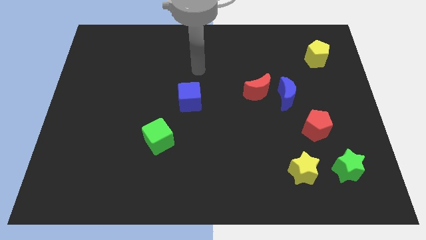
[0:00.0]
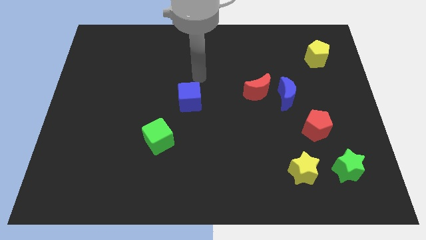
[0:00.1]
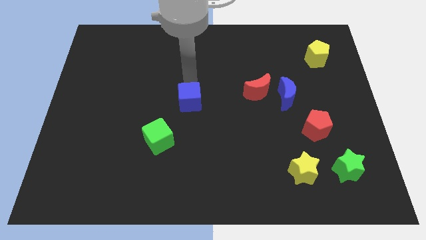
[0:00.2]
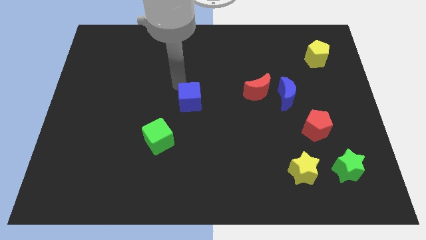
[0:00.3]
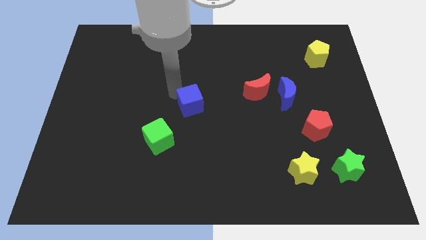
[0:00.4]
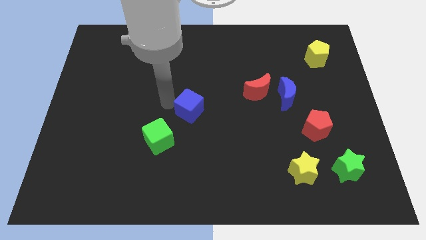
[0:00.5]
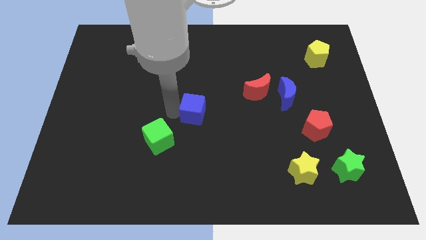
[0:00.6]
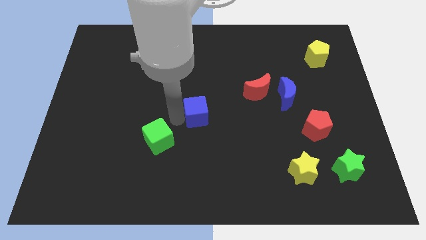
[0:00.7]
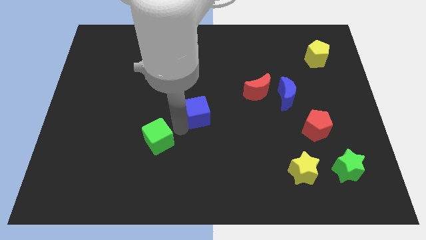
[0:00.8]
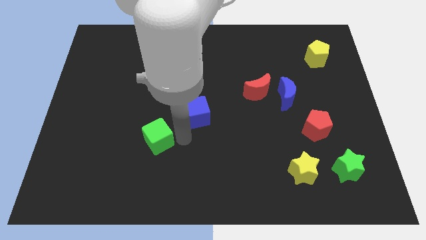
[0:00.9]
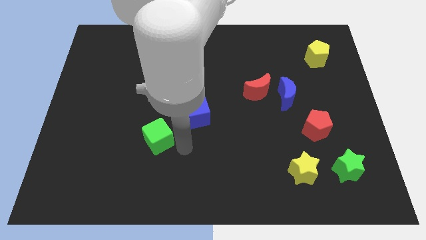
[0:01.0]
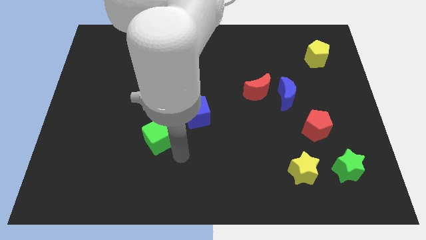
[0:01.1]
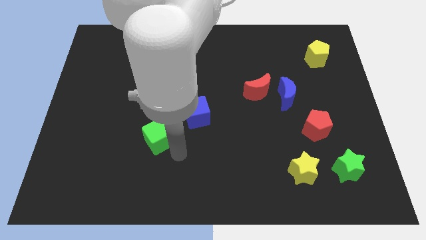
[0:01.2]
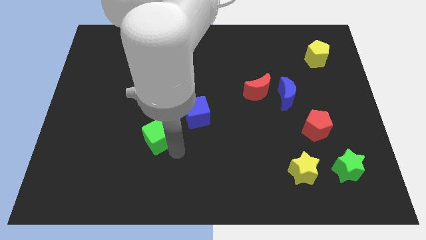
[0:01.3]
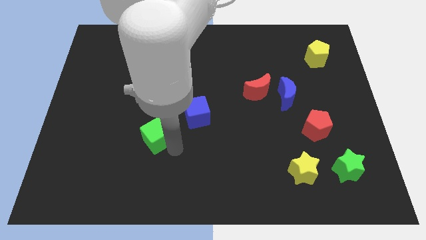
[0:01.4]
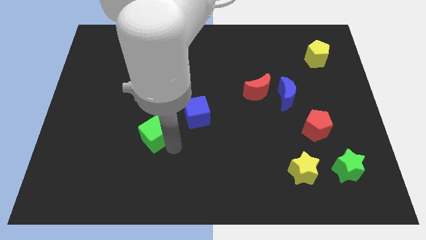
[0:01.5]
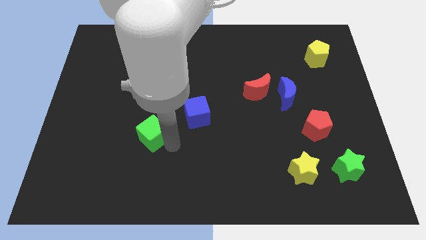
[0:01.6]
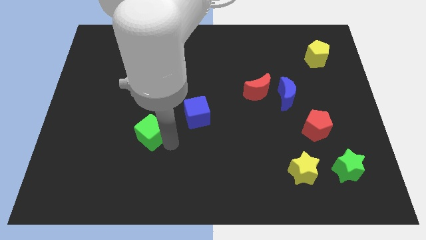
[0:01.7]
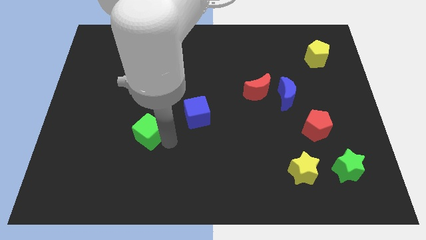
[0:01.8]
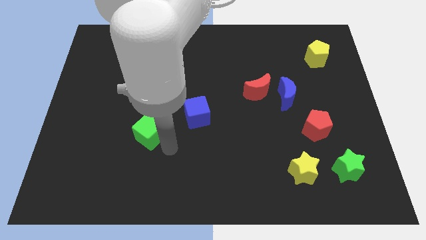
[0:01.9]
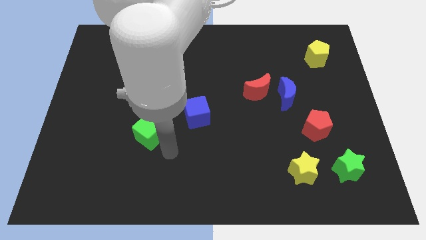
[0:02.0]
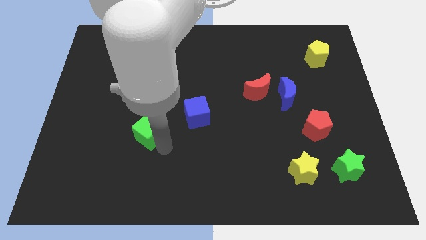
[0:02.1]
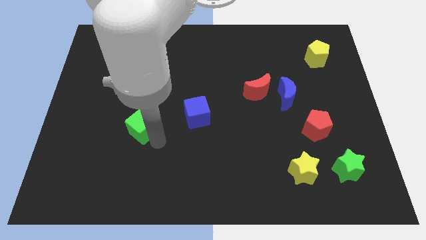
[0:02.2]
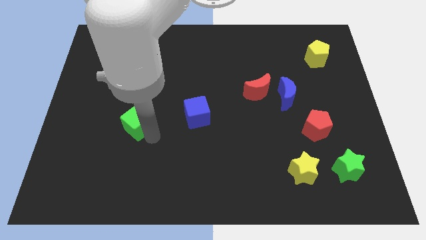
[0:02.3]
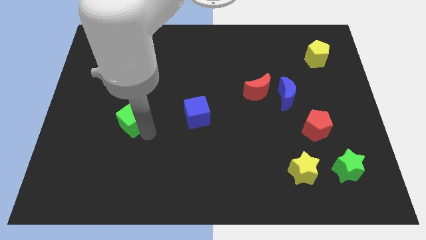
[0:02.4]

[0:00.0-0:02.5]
slide the green cube somewhat up and then to the left

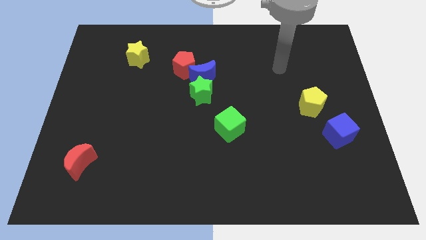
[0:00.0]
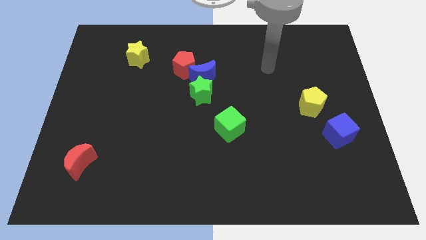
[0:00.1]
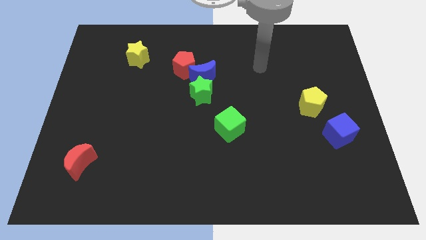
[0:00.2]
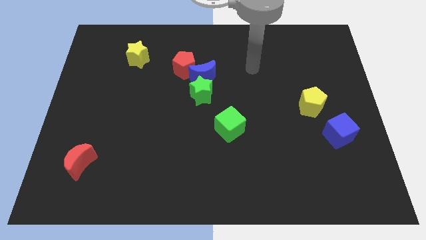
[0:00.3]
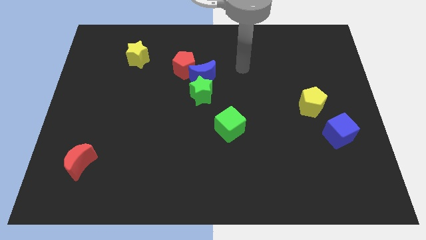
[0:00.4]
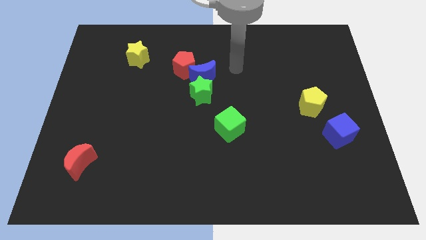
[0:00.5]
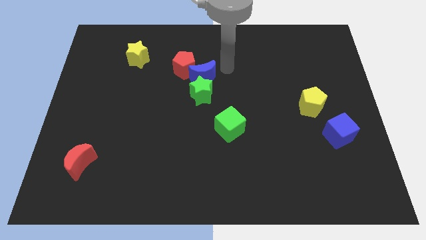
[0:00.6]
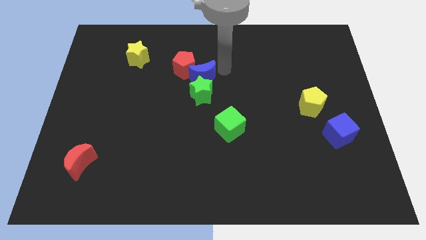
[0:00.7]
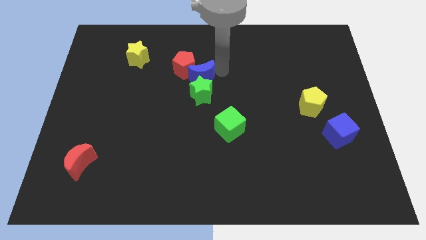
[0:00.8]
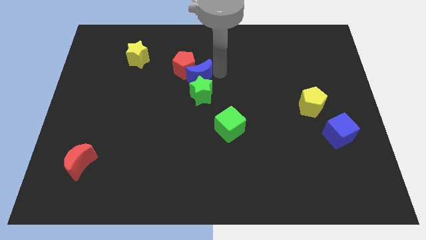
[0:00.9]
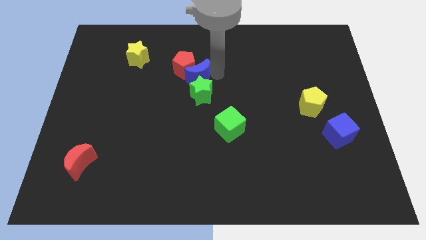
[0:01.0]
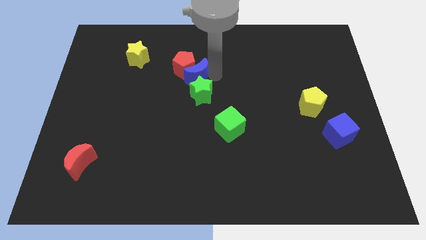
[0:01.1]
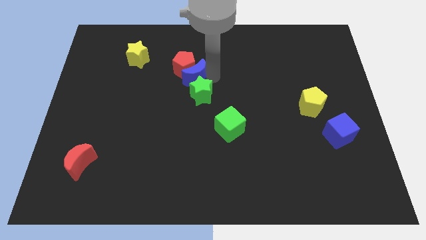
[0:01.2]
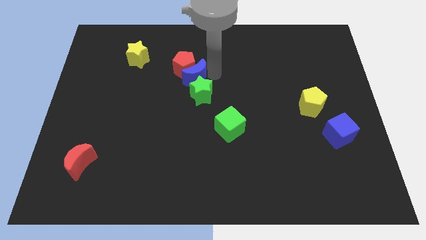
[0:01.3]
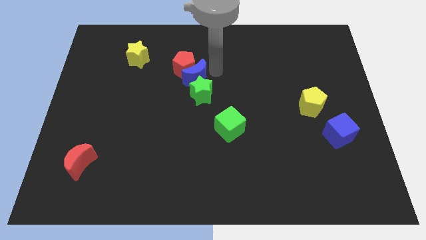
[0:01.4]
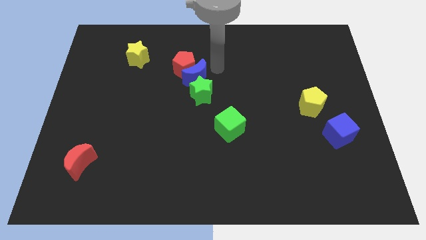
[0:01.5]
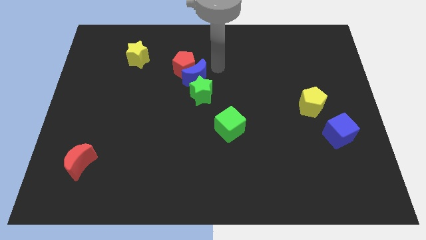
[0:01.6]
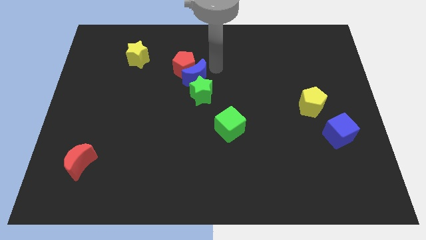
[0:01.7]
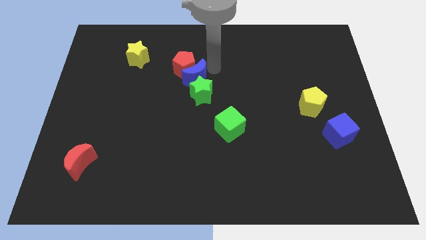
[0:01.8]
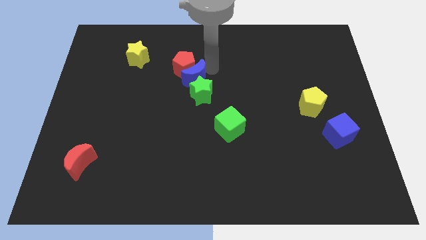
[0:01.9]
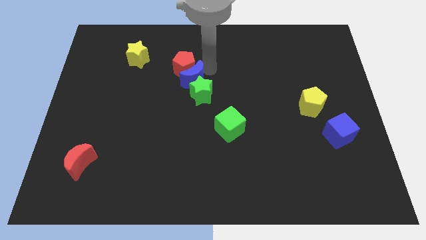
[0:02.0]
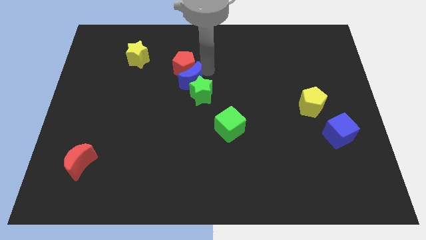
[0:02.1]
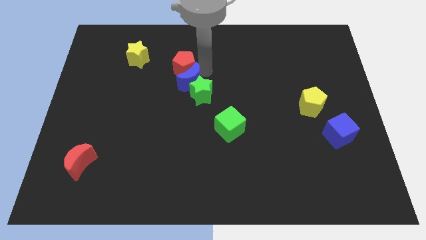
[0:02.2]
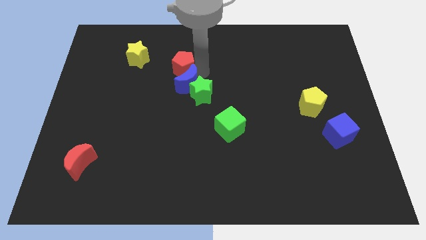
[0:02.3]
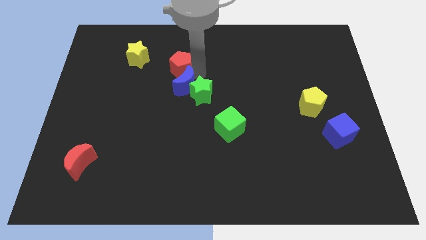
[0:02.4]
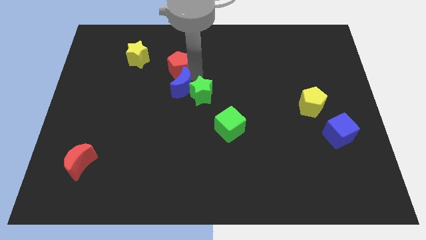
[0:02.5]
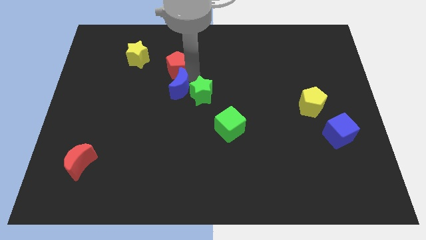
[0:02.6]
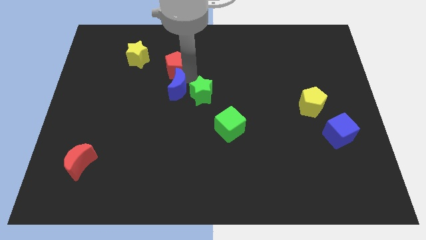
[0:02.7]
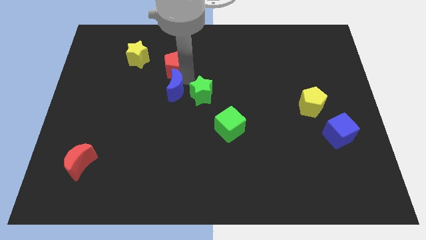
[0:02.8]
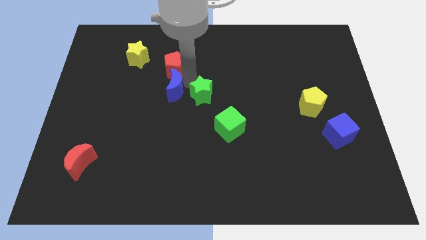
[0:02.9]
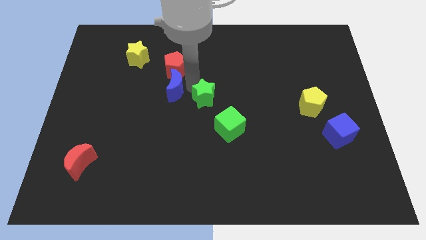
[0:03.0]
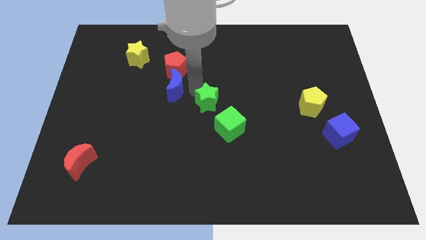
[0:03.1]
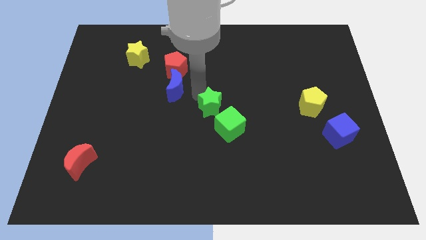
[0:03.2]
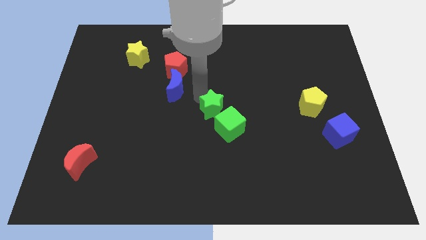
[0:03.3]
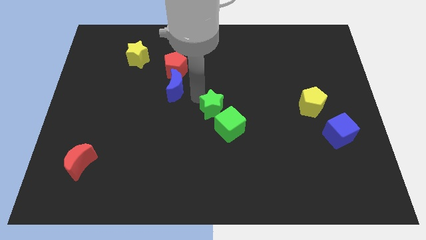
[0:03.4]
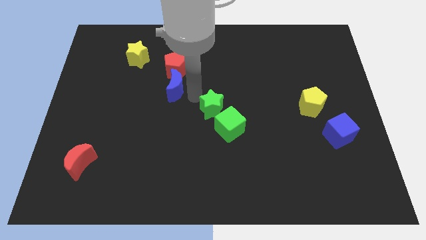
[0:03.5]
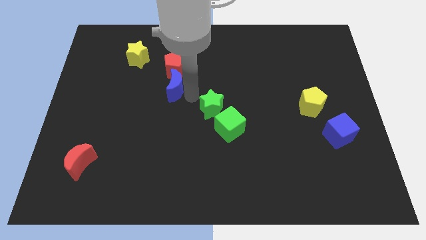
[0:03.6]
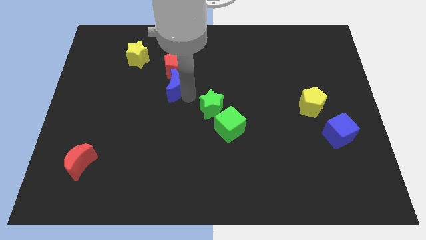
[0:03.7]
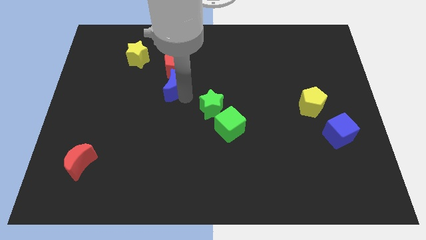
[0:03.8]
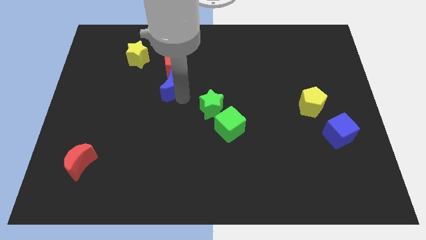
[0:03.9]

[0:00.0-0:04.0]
slightly move the blue moon to the left

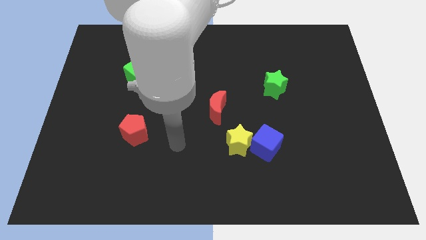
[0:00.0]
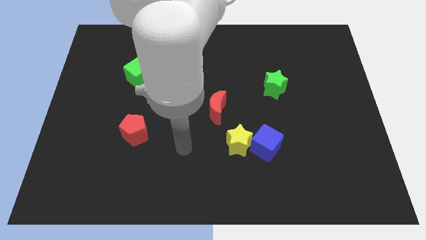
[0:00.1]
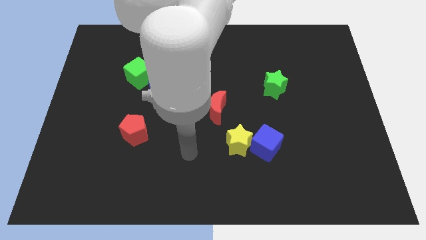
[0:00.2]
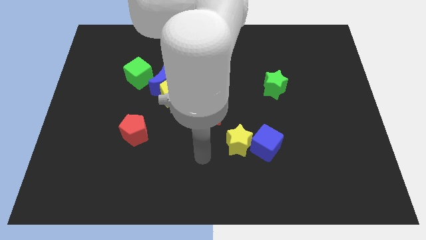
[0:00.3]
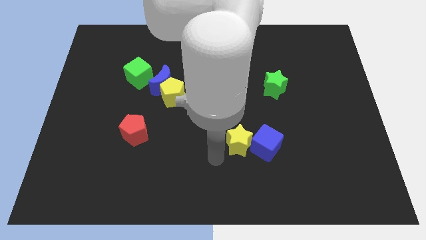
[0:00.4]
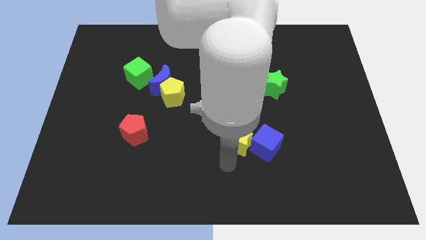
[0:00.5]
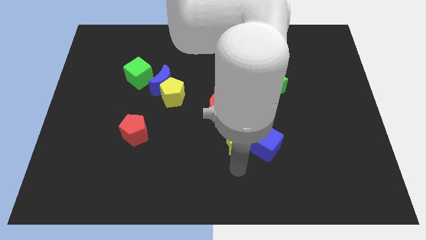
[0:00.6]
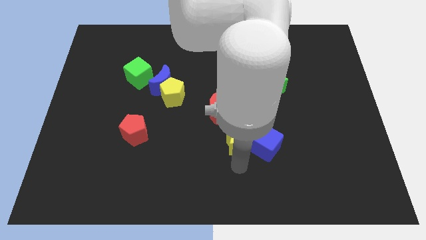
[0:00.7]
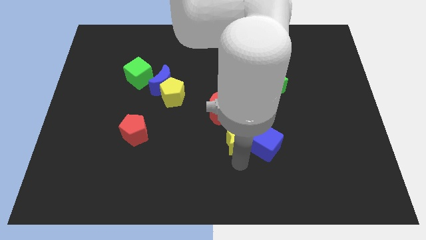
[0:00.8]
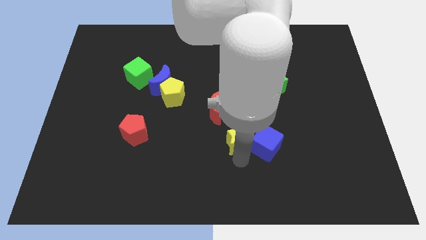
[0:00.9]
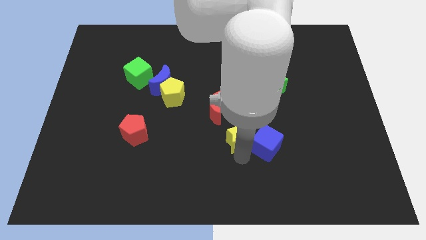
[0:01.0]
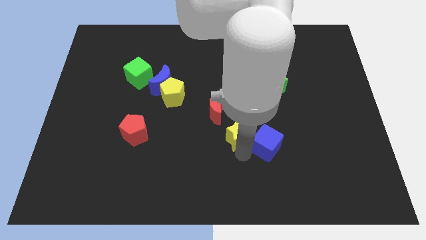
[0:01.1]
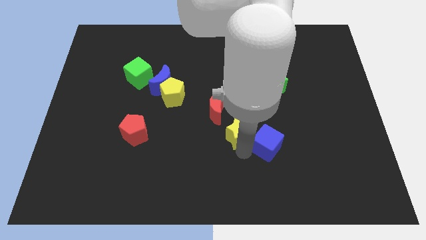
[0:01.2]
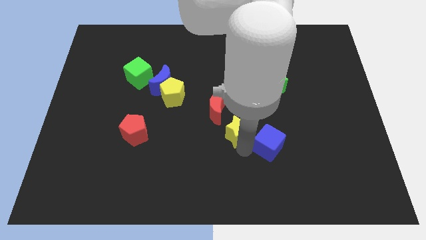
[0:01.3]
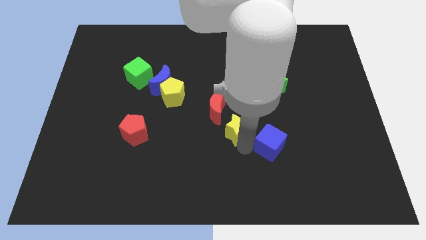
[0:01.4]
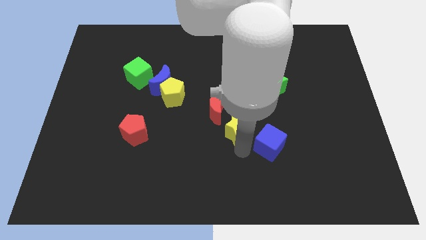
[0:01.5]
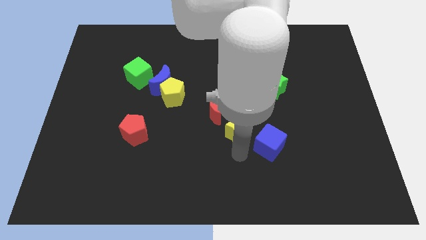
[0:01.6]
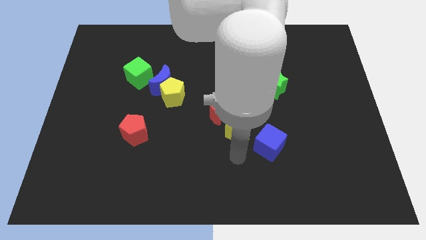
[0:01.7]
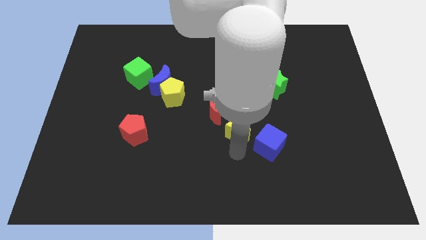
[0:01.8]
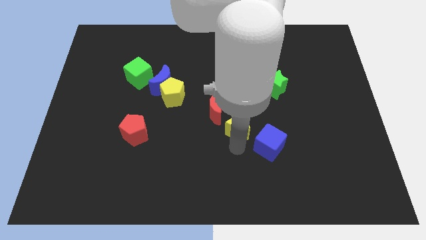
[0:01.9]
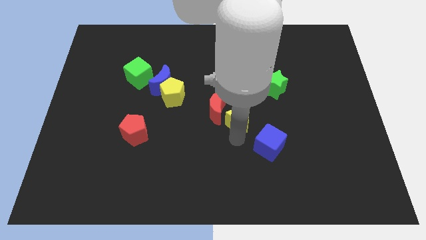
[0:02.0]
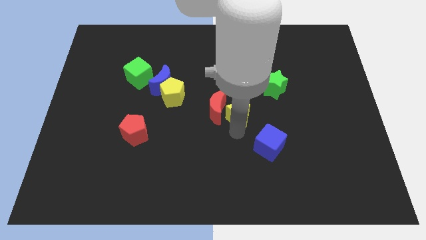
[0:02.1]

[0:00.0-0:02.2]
move the yellow star somewhat upwards
